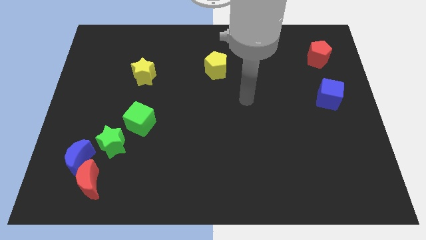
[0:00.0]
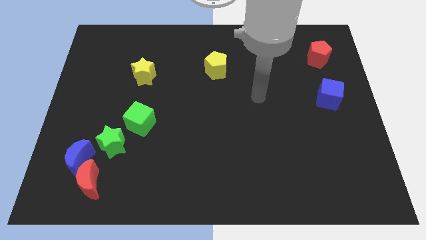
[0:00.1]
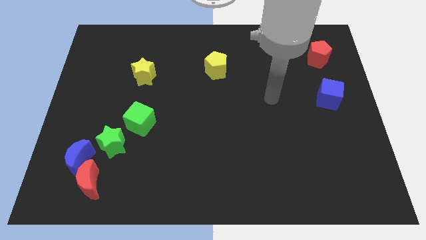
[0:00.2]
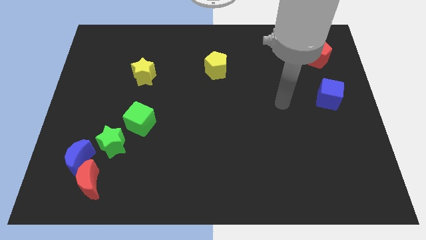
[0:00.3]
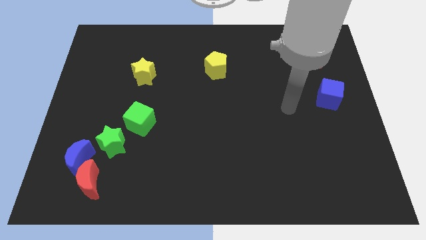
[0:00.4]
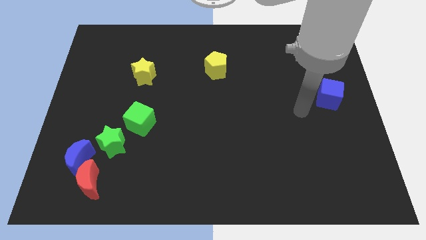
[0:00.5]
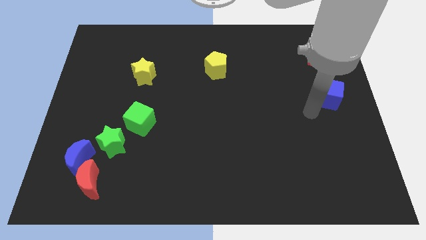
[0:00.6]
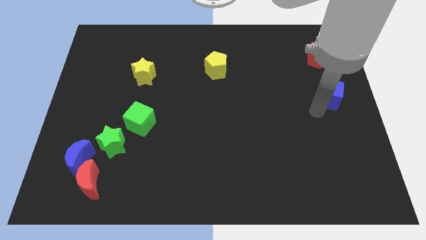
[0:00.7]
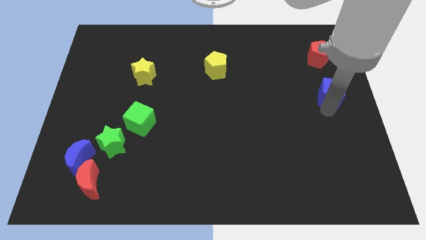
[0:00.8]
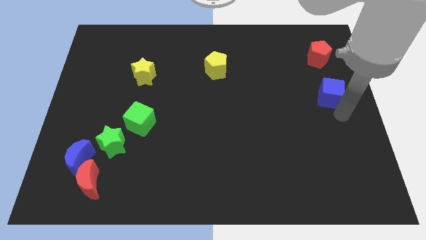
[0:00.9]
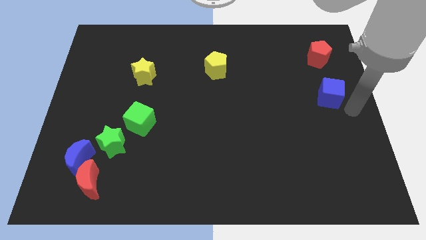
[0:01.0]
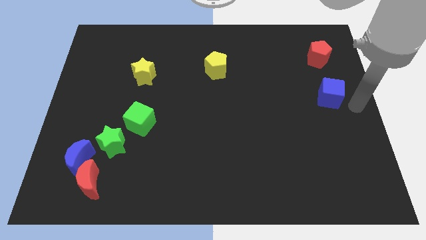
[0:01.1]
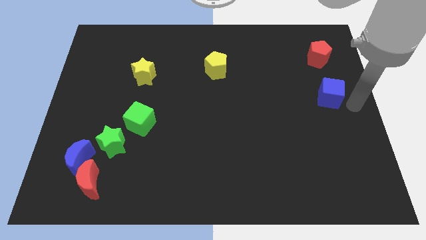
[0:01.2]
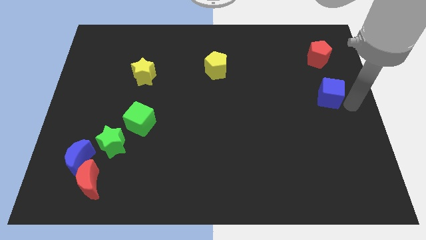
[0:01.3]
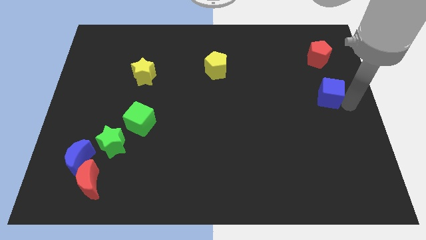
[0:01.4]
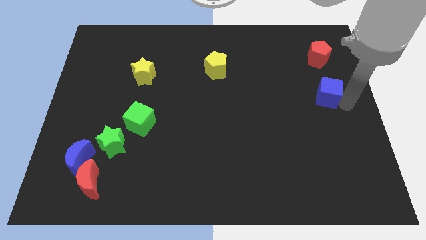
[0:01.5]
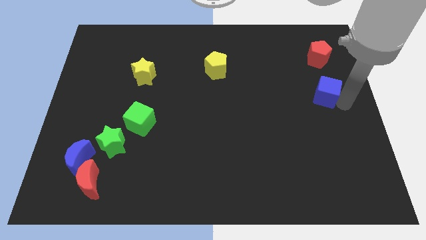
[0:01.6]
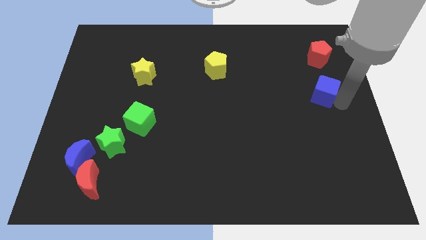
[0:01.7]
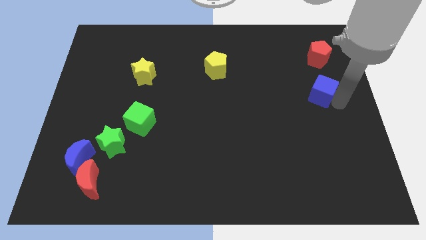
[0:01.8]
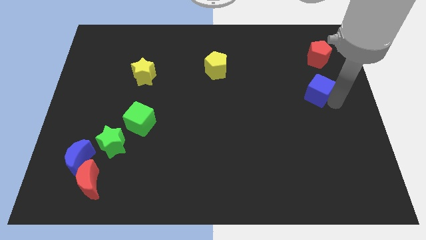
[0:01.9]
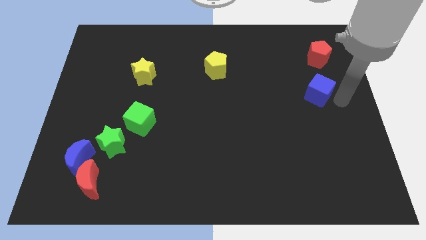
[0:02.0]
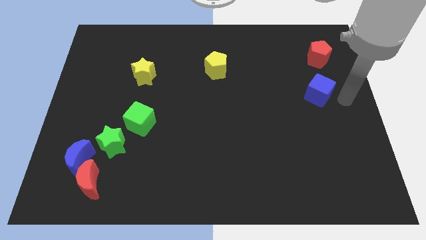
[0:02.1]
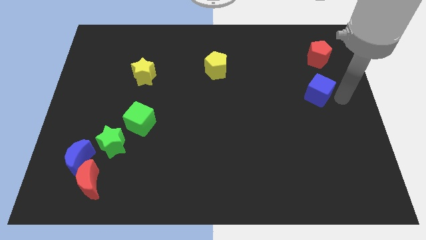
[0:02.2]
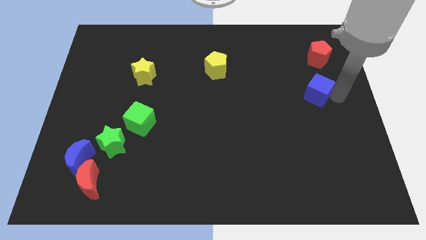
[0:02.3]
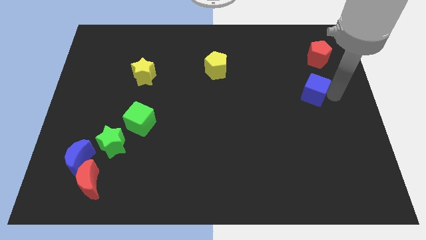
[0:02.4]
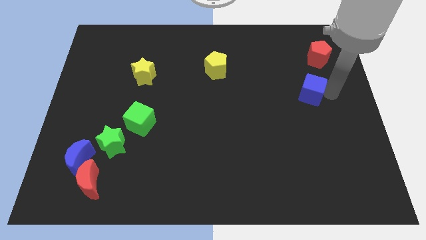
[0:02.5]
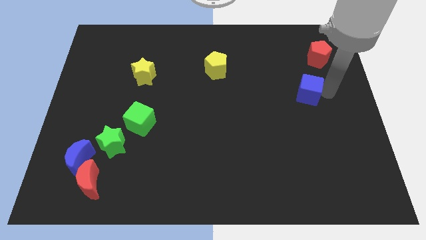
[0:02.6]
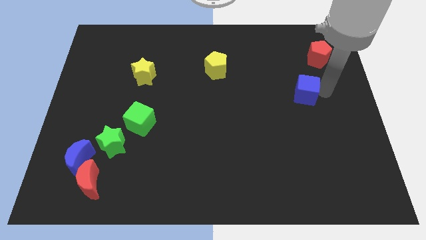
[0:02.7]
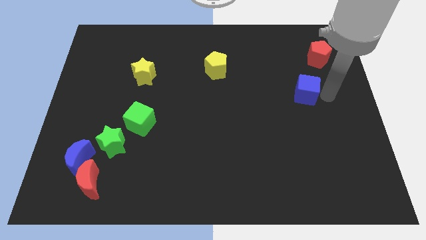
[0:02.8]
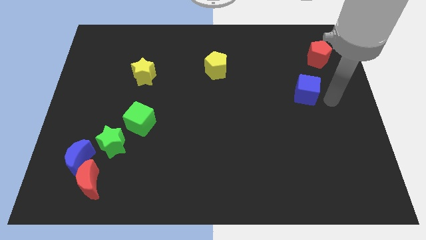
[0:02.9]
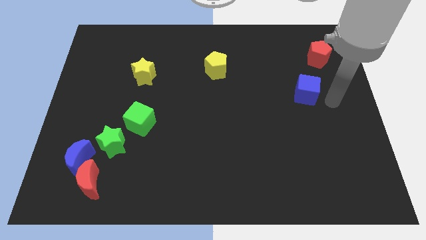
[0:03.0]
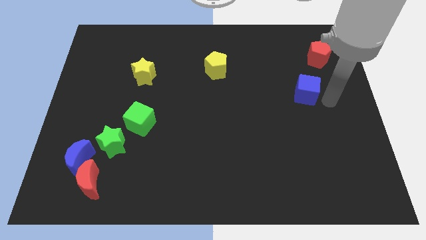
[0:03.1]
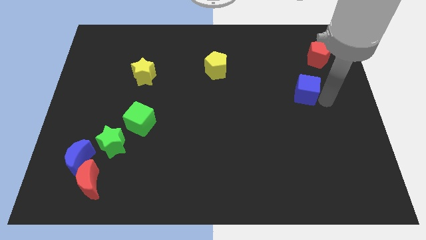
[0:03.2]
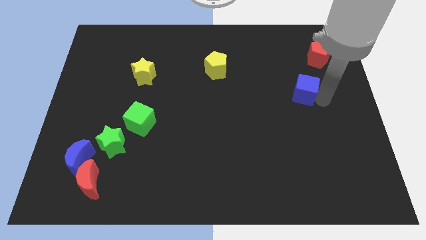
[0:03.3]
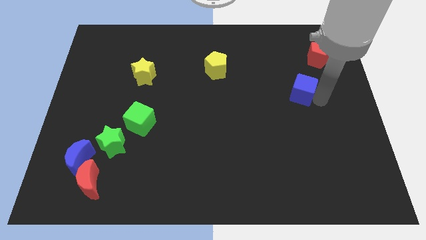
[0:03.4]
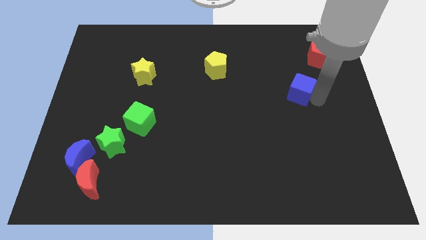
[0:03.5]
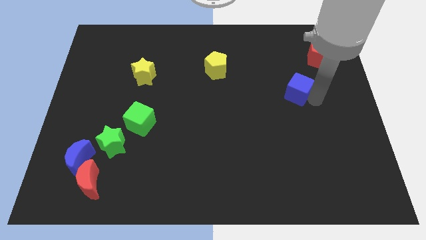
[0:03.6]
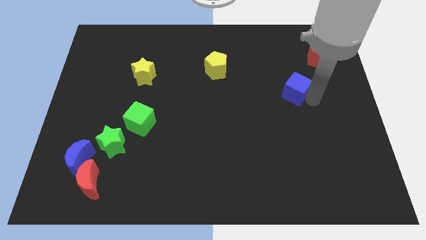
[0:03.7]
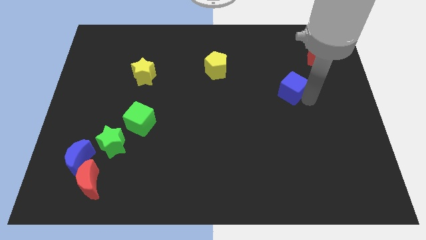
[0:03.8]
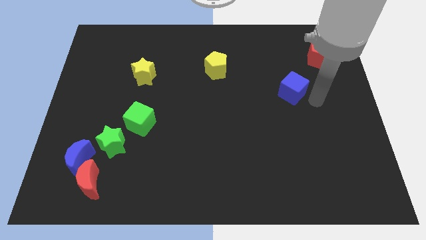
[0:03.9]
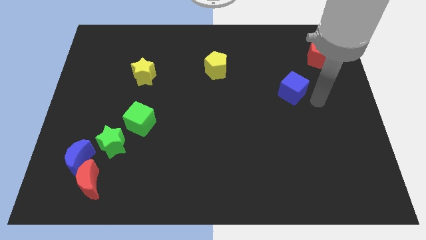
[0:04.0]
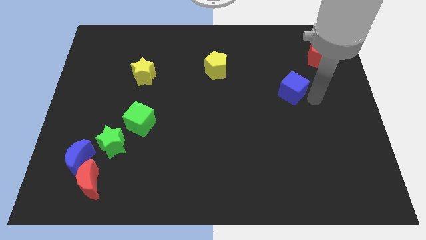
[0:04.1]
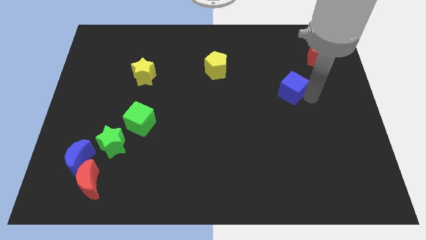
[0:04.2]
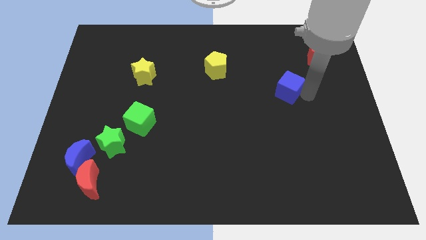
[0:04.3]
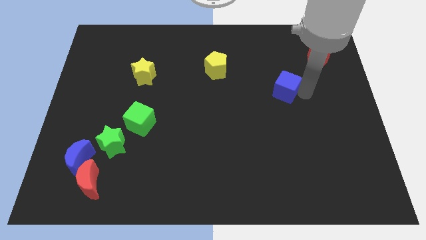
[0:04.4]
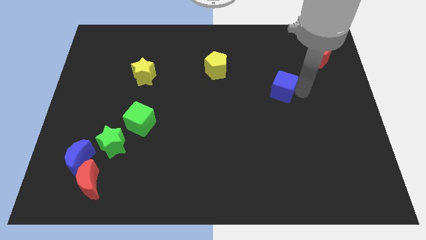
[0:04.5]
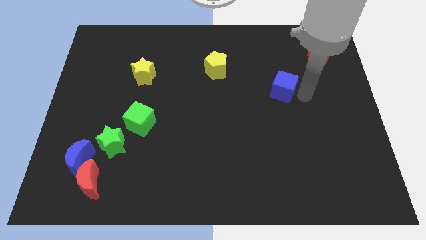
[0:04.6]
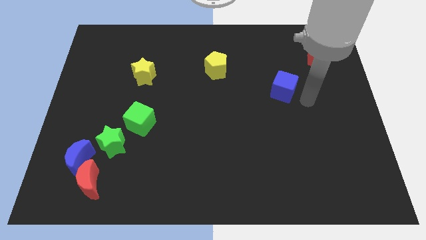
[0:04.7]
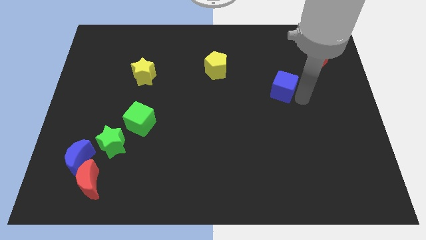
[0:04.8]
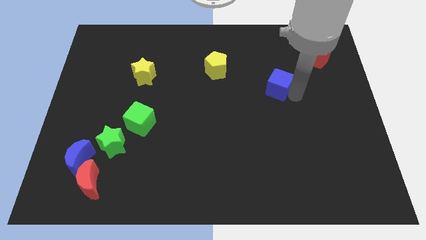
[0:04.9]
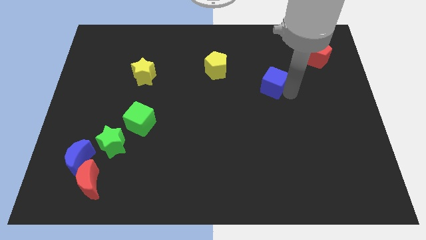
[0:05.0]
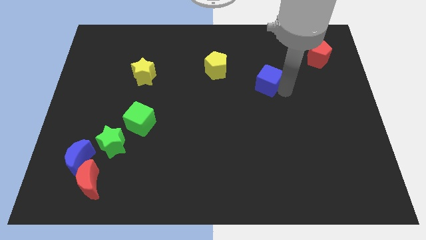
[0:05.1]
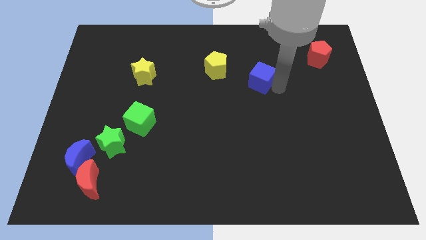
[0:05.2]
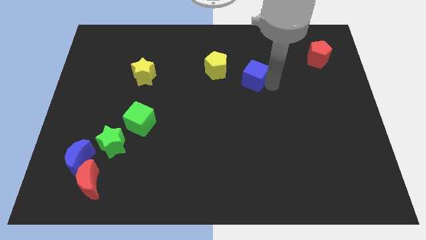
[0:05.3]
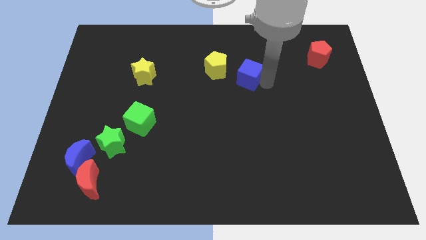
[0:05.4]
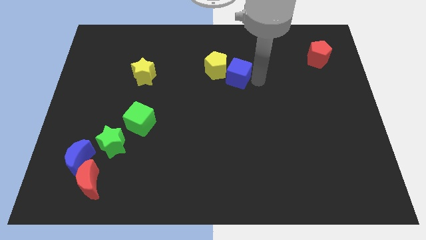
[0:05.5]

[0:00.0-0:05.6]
put the blue cube towards the yellow pentagon

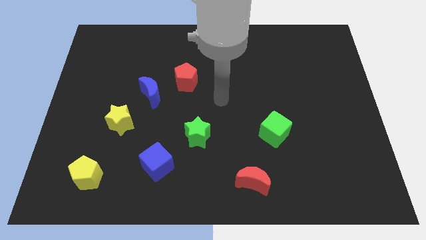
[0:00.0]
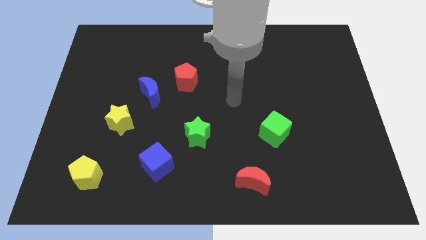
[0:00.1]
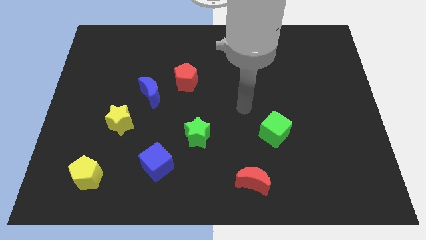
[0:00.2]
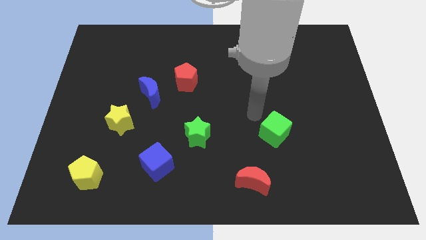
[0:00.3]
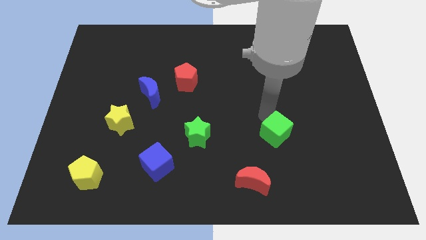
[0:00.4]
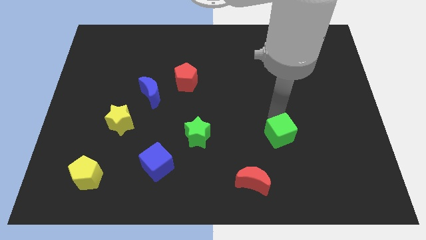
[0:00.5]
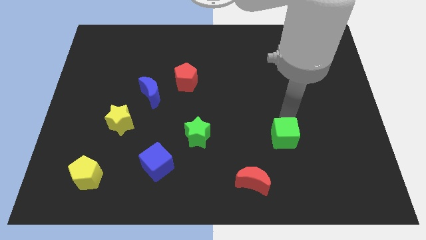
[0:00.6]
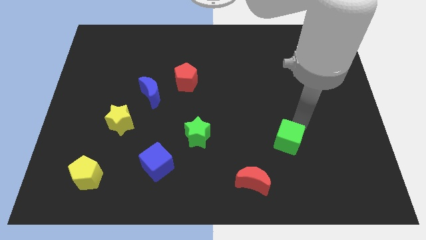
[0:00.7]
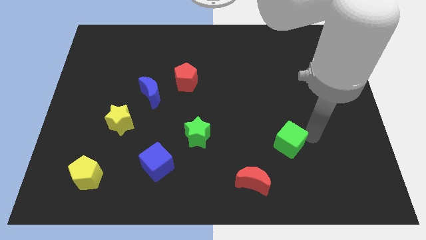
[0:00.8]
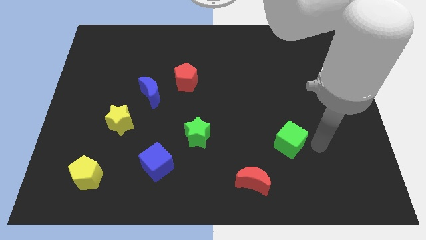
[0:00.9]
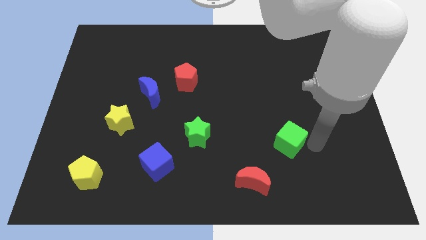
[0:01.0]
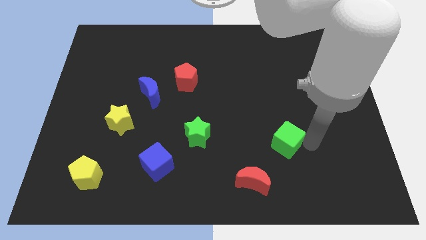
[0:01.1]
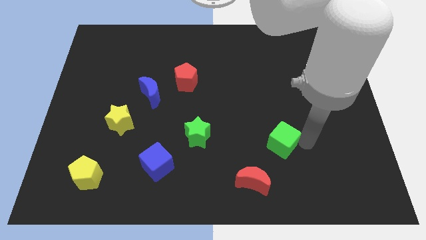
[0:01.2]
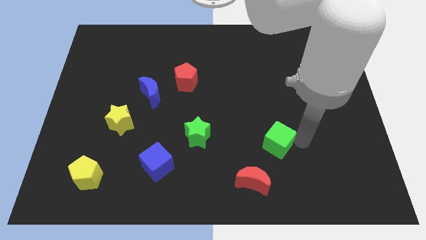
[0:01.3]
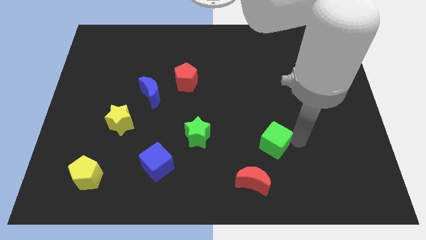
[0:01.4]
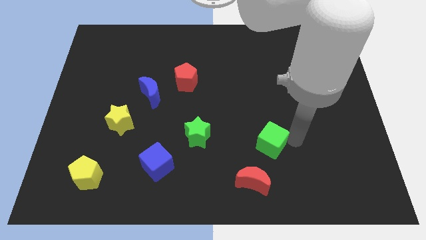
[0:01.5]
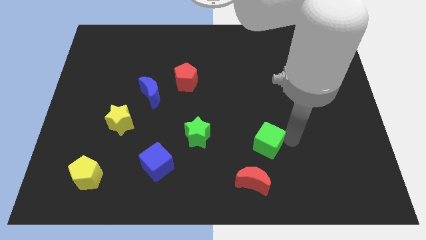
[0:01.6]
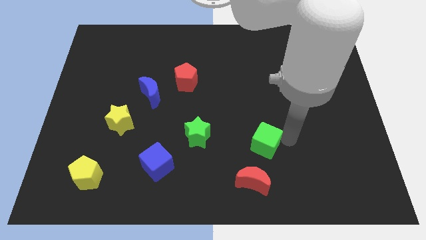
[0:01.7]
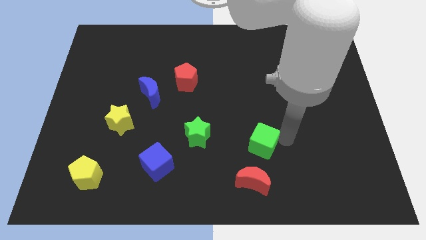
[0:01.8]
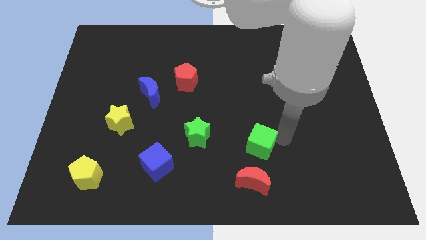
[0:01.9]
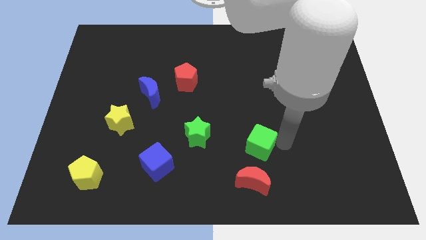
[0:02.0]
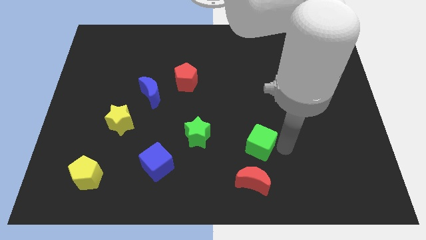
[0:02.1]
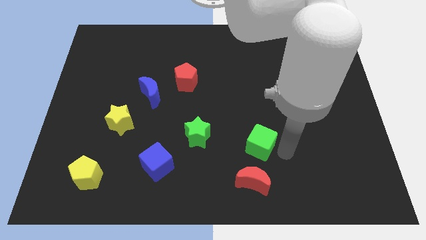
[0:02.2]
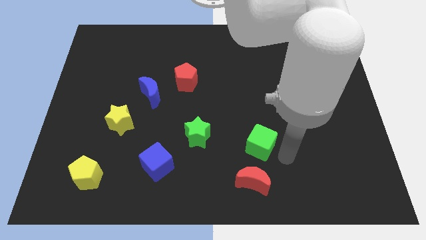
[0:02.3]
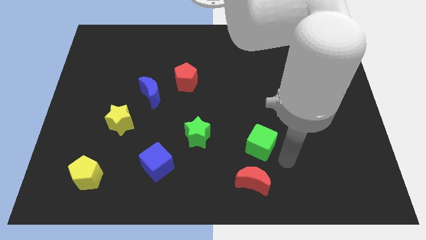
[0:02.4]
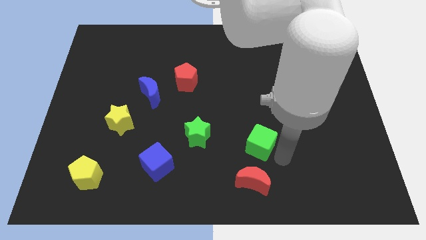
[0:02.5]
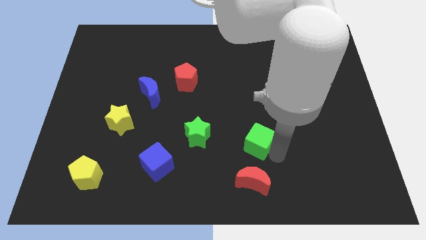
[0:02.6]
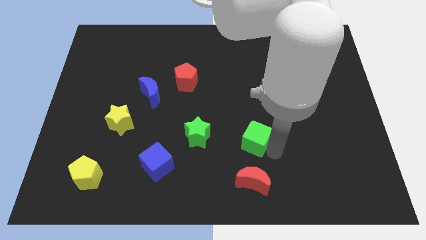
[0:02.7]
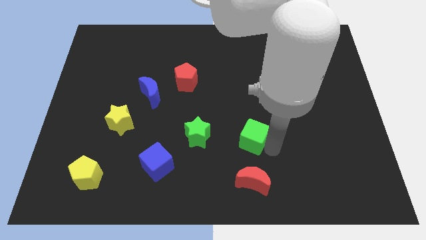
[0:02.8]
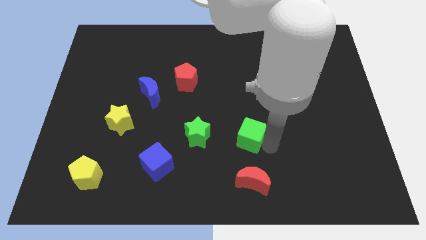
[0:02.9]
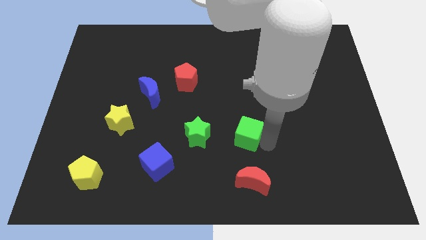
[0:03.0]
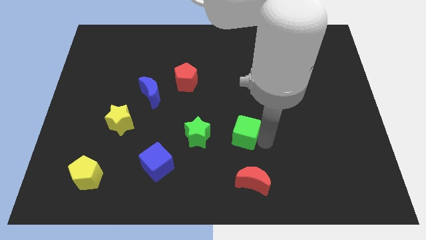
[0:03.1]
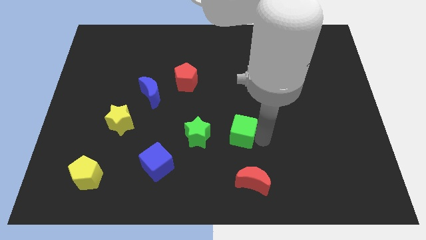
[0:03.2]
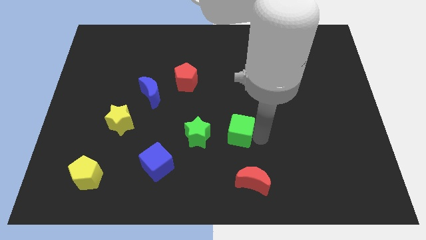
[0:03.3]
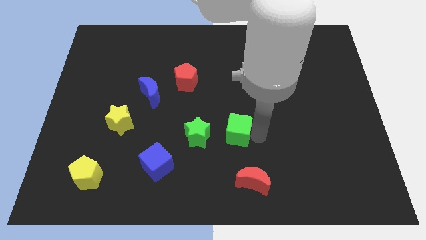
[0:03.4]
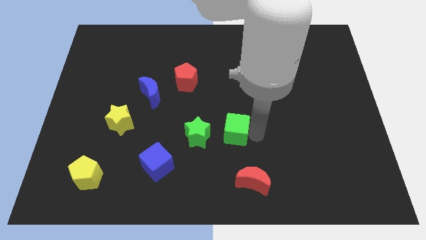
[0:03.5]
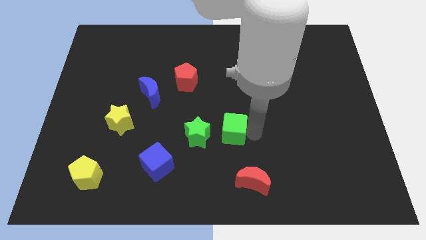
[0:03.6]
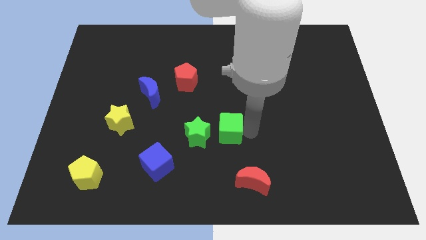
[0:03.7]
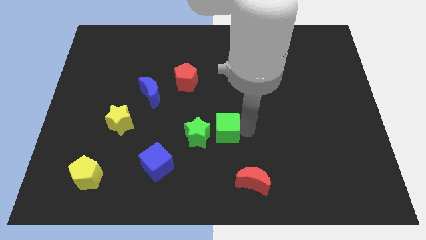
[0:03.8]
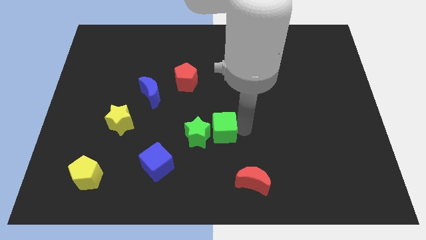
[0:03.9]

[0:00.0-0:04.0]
push the green cube towards the green star
